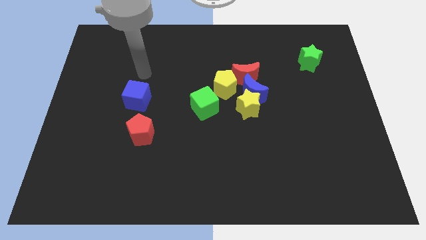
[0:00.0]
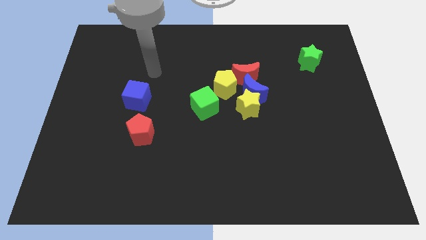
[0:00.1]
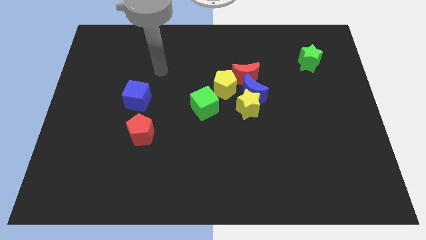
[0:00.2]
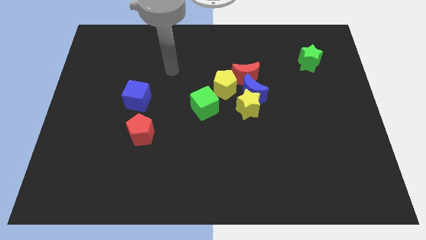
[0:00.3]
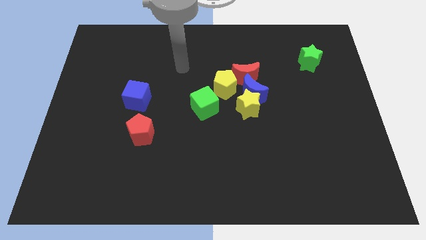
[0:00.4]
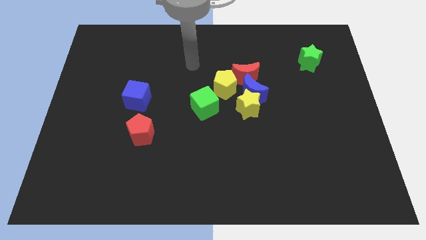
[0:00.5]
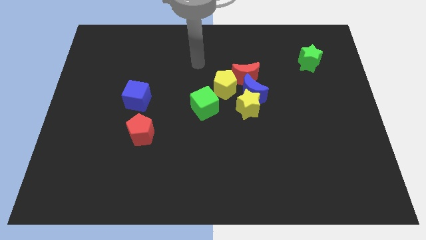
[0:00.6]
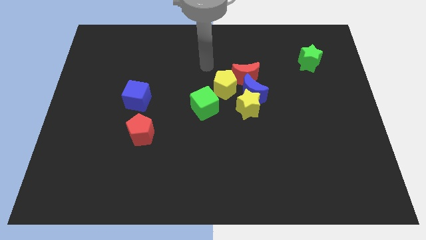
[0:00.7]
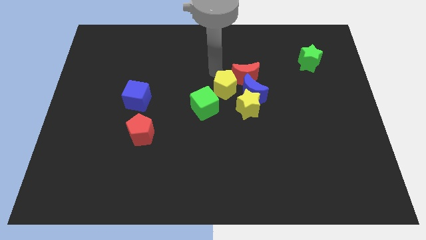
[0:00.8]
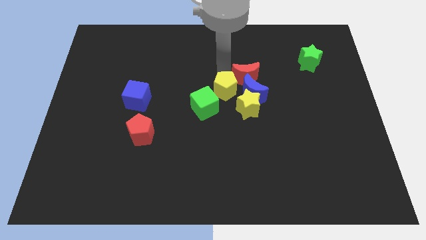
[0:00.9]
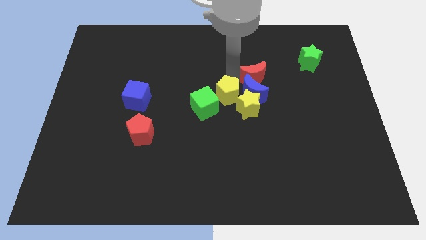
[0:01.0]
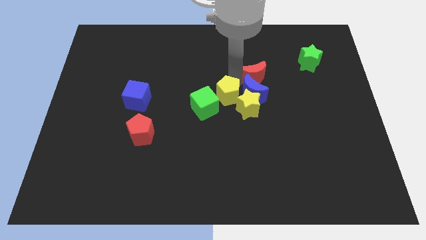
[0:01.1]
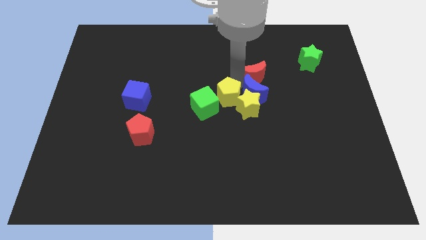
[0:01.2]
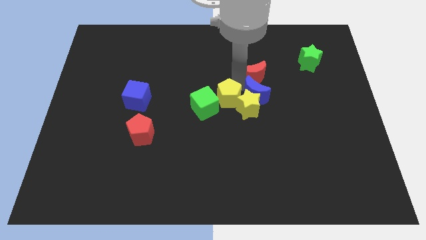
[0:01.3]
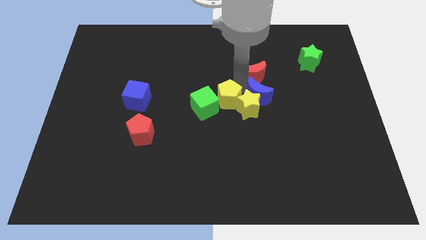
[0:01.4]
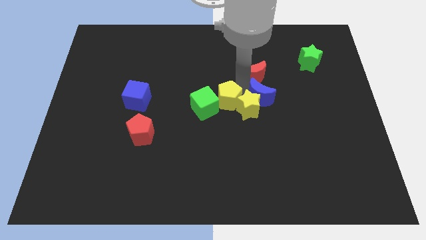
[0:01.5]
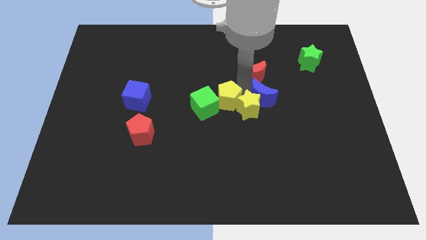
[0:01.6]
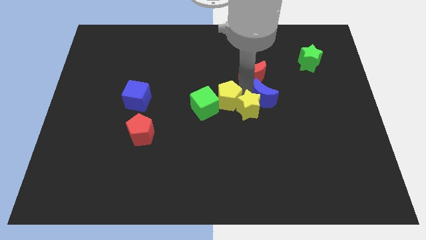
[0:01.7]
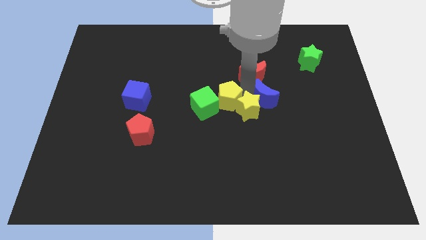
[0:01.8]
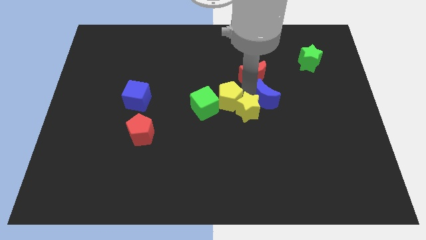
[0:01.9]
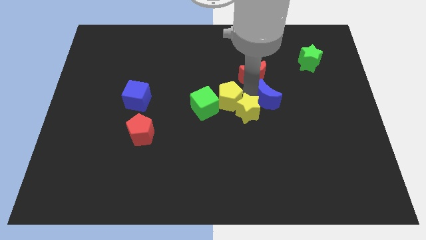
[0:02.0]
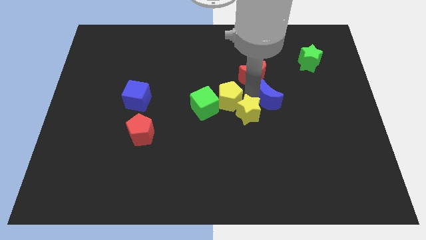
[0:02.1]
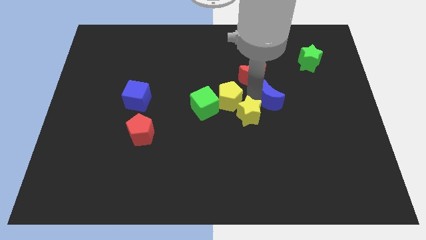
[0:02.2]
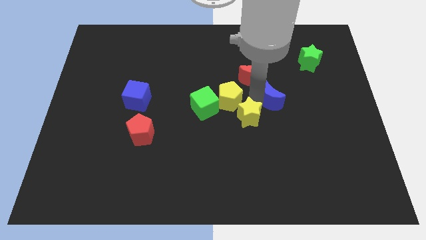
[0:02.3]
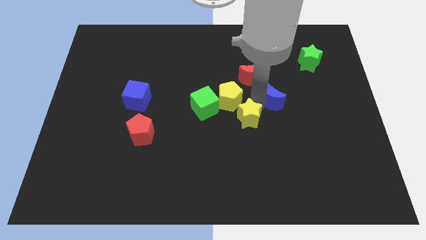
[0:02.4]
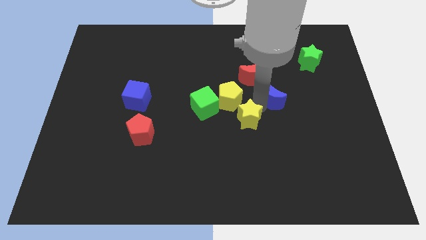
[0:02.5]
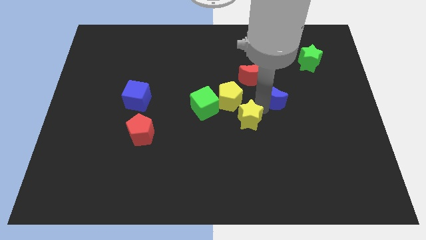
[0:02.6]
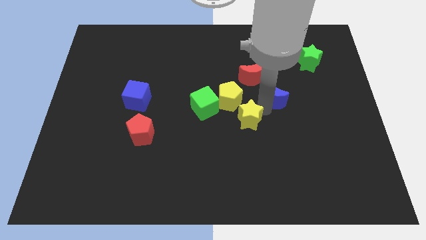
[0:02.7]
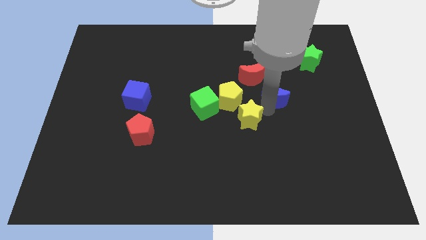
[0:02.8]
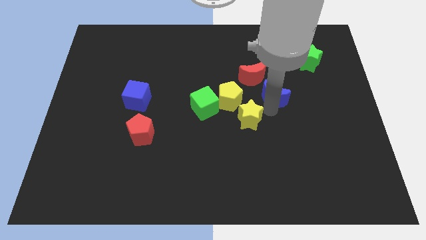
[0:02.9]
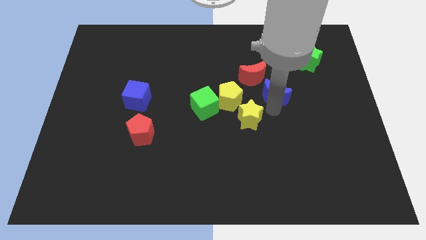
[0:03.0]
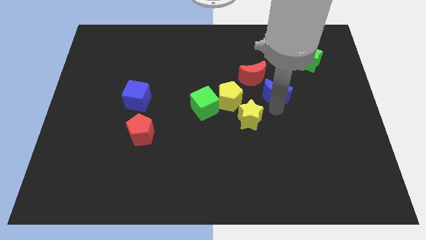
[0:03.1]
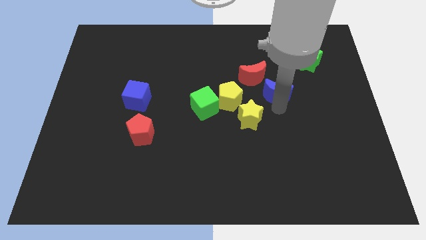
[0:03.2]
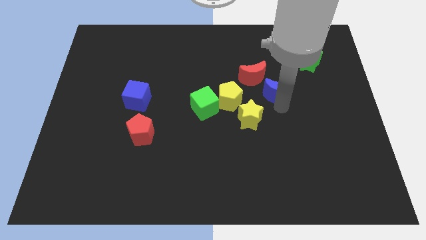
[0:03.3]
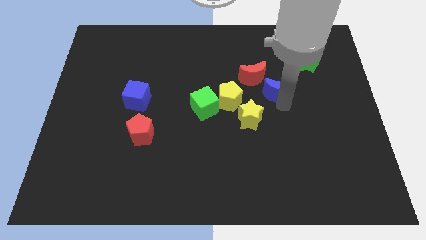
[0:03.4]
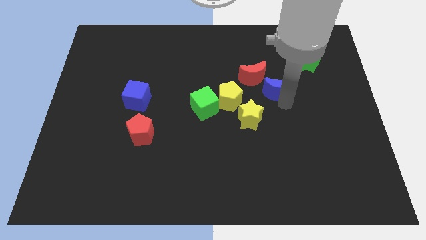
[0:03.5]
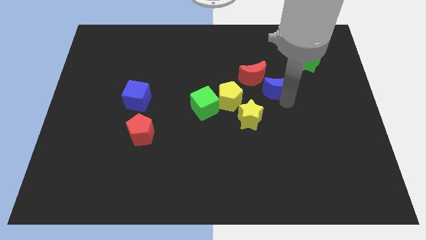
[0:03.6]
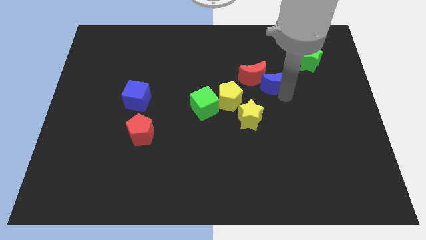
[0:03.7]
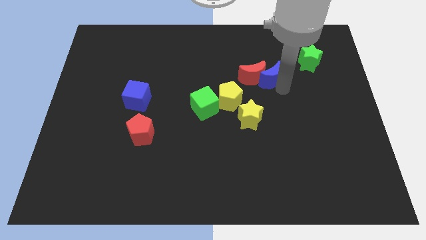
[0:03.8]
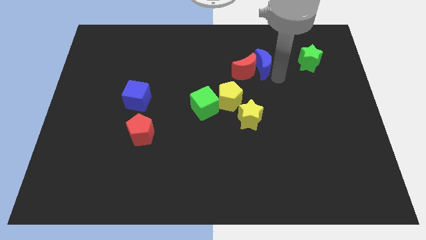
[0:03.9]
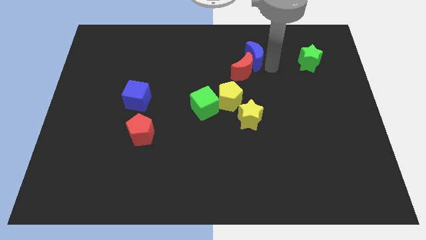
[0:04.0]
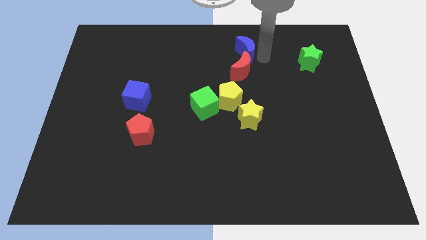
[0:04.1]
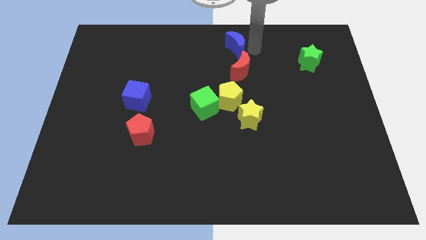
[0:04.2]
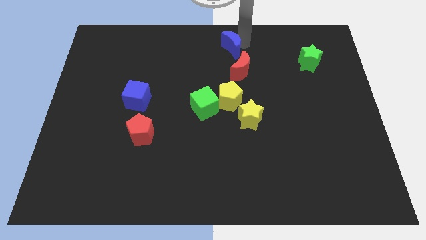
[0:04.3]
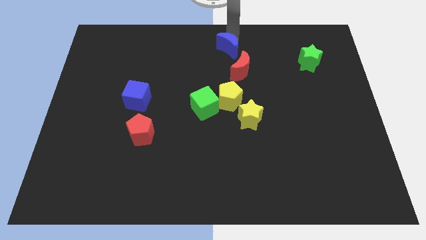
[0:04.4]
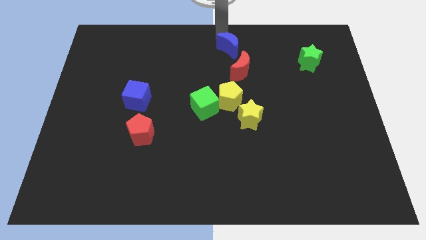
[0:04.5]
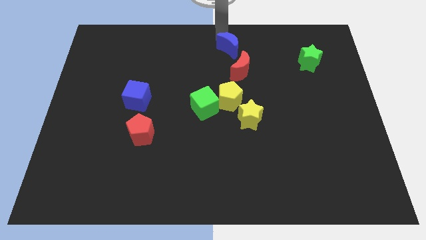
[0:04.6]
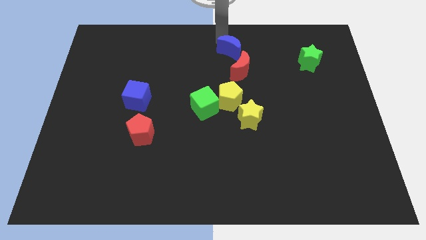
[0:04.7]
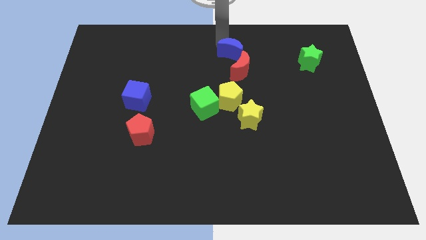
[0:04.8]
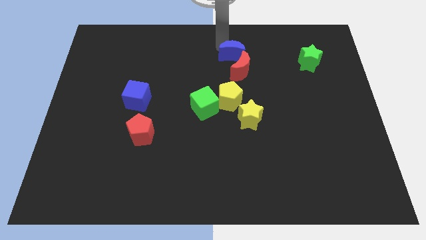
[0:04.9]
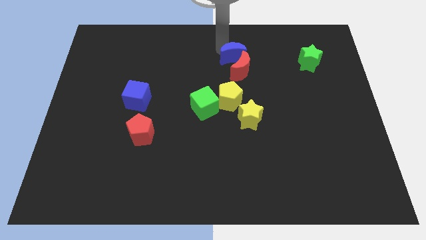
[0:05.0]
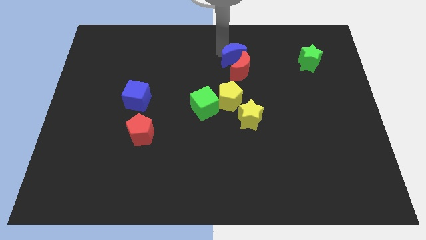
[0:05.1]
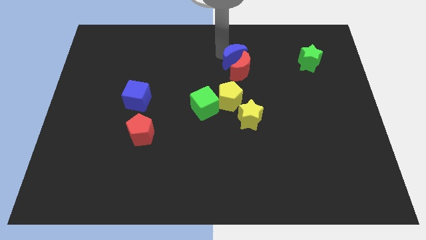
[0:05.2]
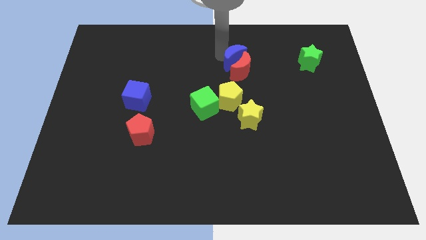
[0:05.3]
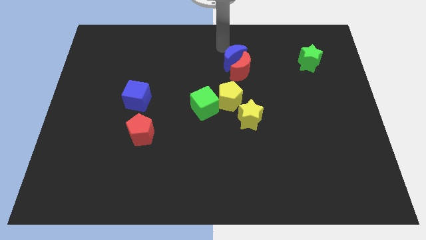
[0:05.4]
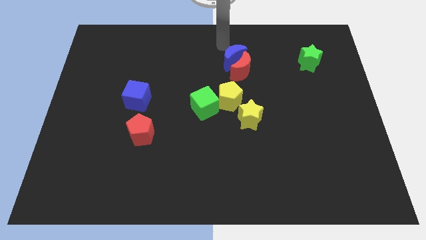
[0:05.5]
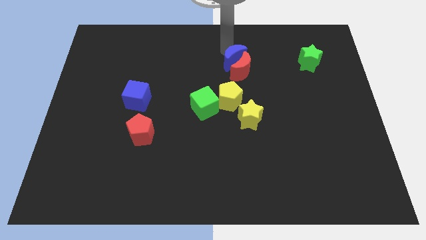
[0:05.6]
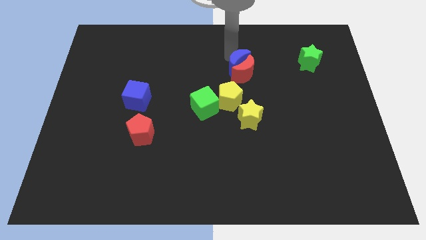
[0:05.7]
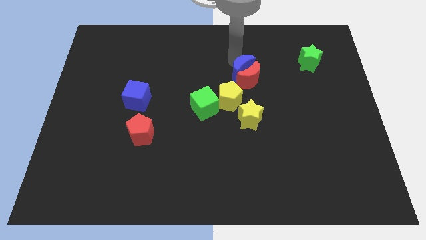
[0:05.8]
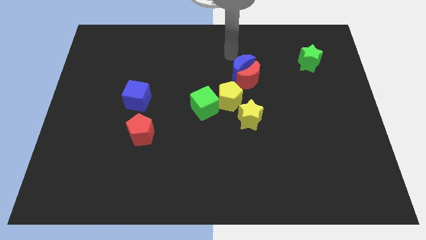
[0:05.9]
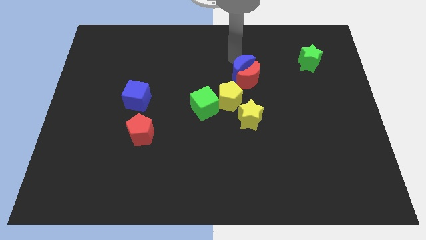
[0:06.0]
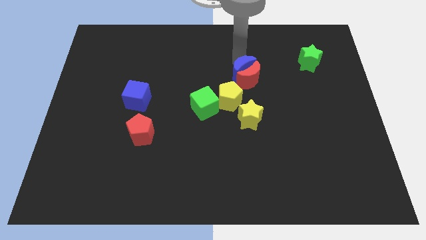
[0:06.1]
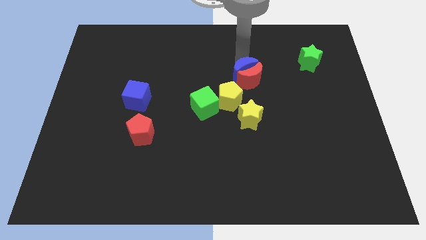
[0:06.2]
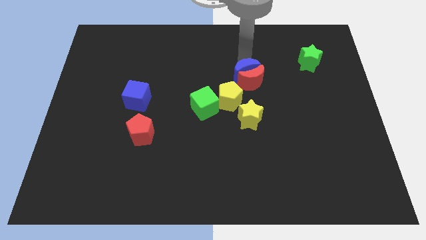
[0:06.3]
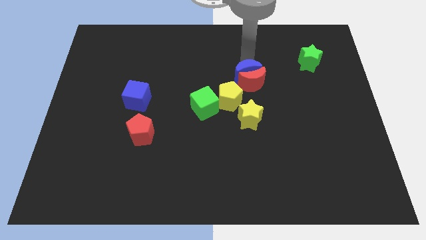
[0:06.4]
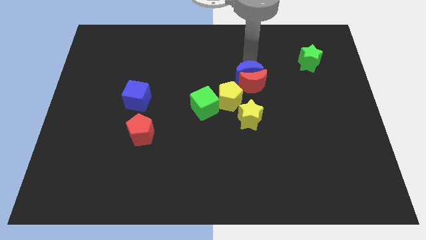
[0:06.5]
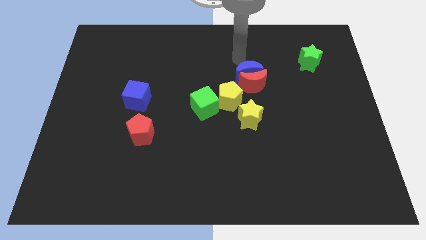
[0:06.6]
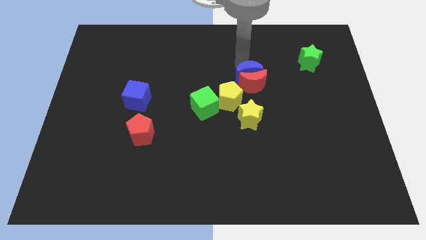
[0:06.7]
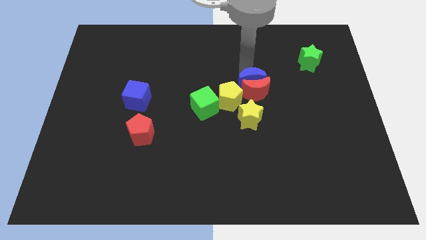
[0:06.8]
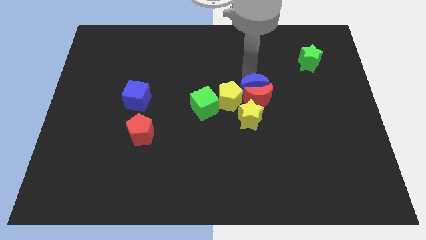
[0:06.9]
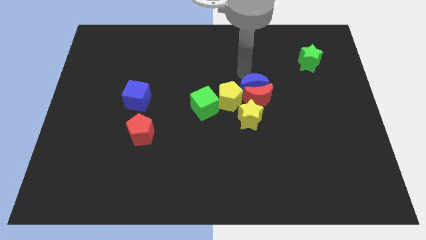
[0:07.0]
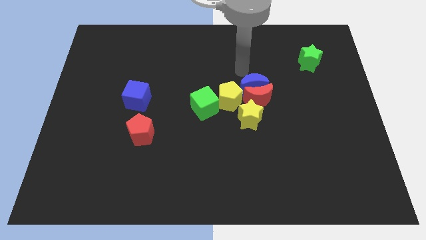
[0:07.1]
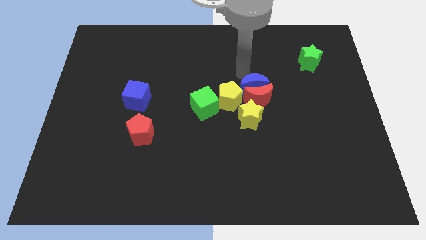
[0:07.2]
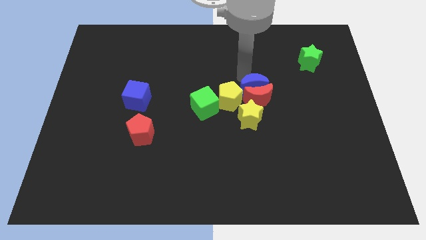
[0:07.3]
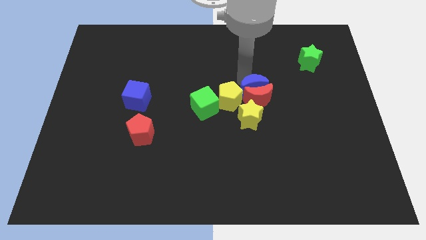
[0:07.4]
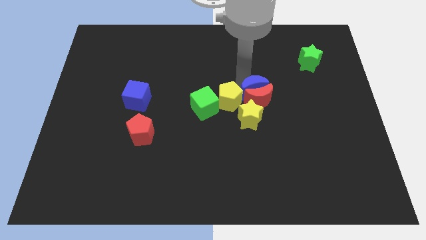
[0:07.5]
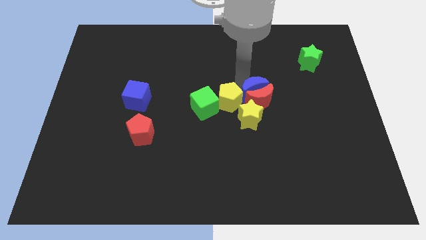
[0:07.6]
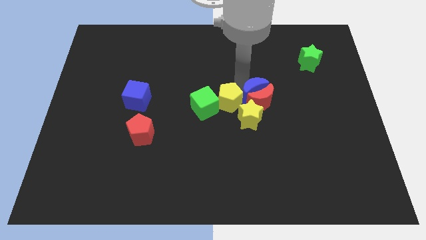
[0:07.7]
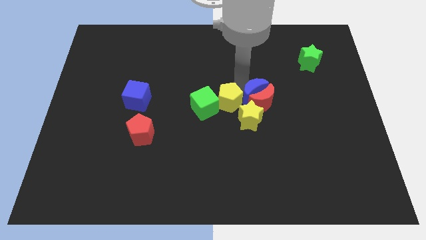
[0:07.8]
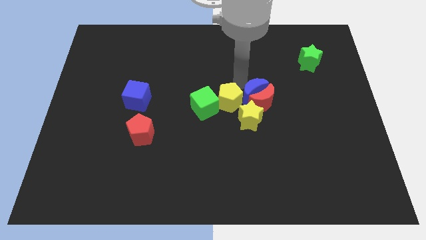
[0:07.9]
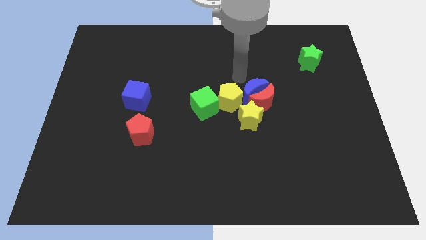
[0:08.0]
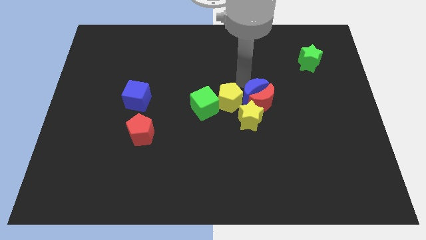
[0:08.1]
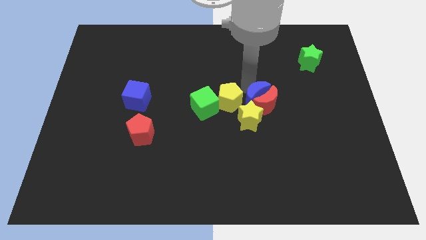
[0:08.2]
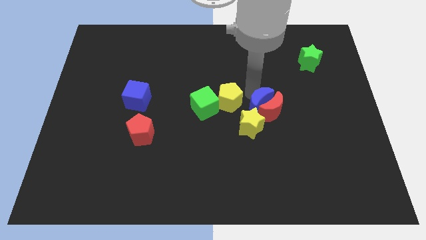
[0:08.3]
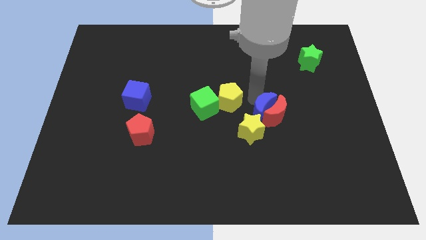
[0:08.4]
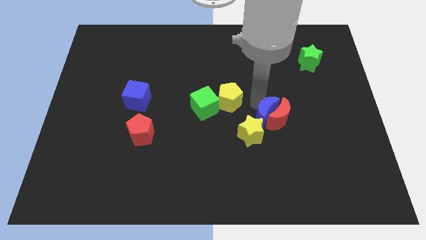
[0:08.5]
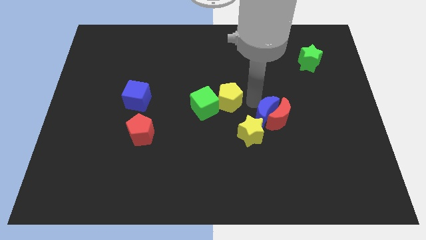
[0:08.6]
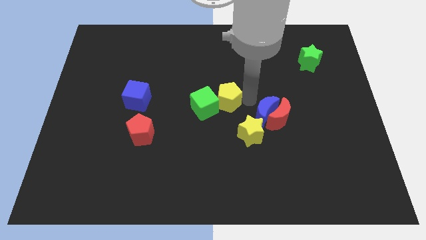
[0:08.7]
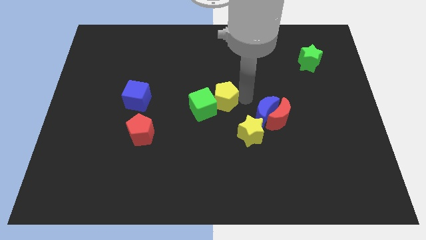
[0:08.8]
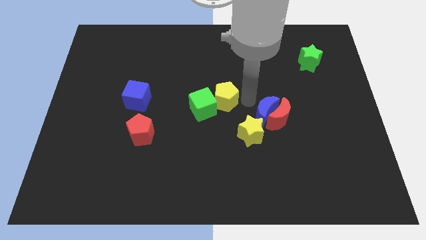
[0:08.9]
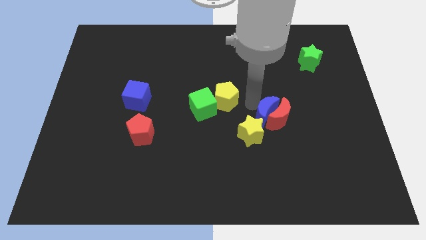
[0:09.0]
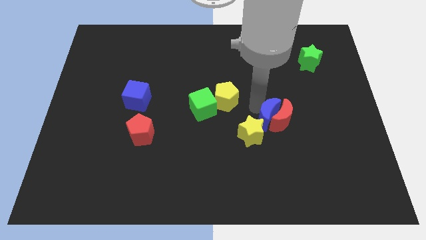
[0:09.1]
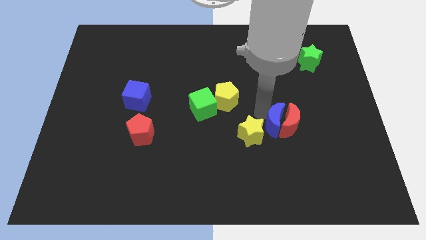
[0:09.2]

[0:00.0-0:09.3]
slightly move the blue moon diagonally down and to the right
